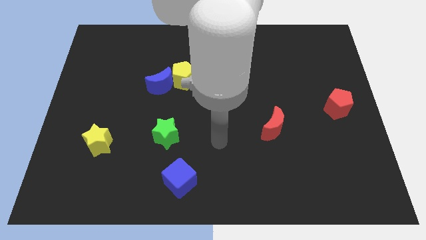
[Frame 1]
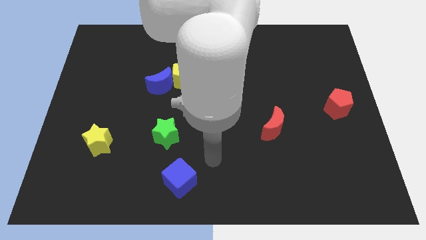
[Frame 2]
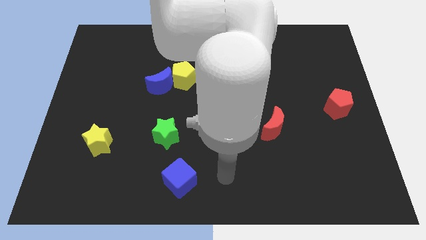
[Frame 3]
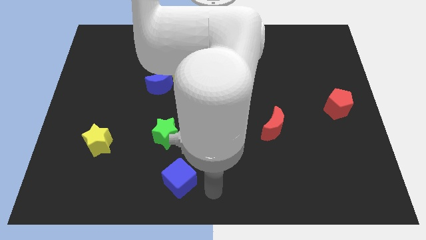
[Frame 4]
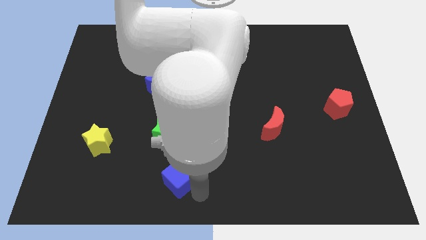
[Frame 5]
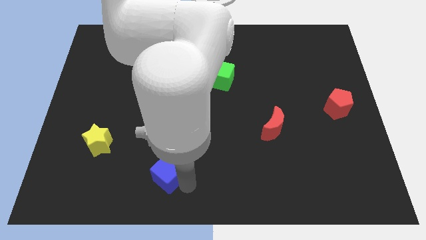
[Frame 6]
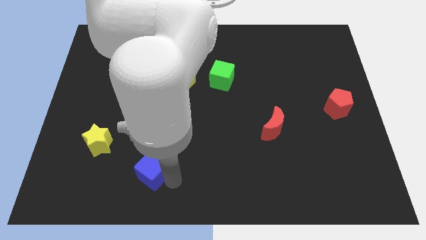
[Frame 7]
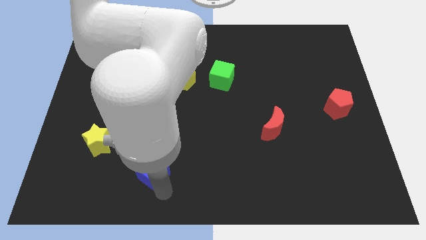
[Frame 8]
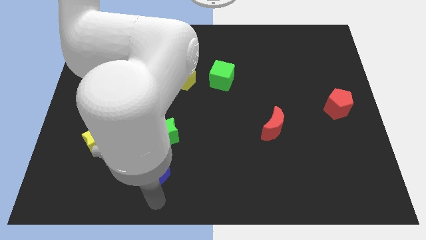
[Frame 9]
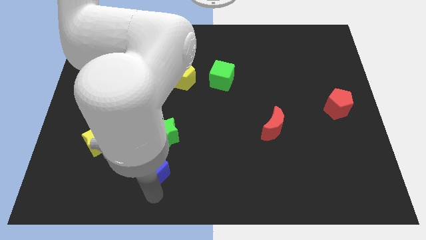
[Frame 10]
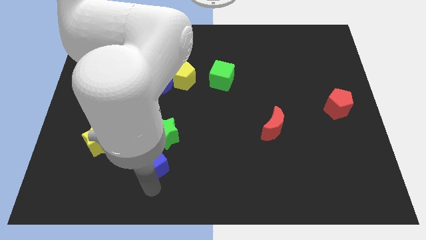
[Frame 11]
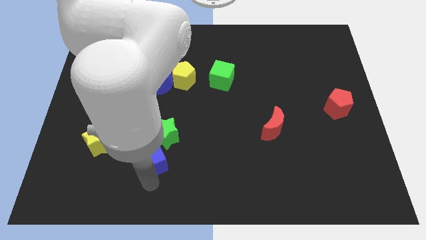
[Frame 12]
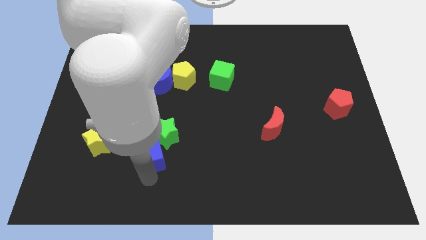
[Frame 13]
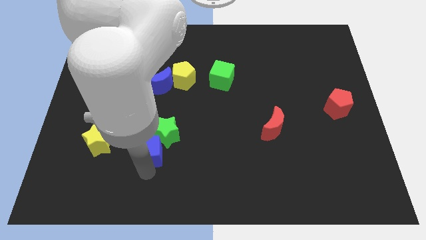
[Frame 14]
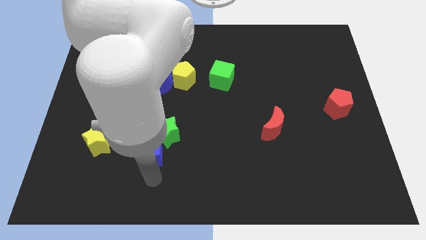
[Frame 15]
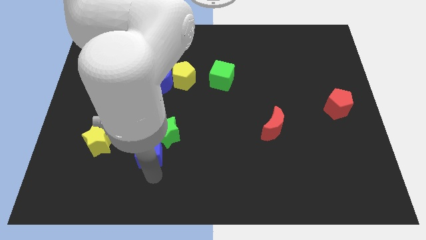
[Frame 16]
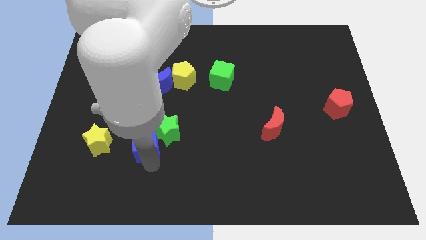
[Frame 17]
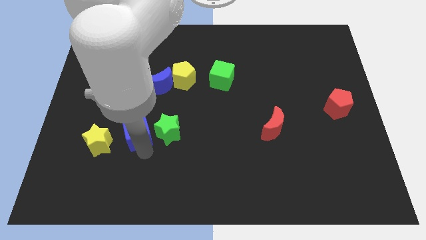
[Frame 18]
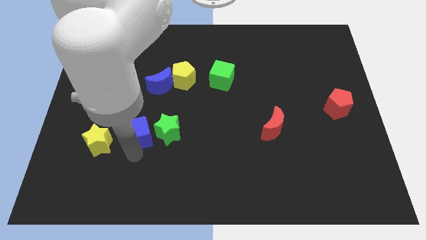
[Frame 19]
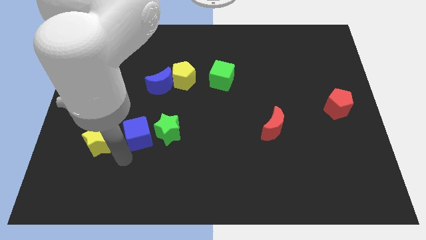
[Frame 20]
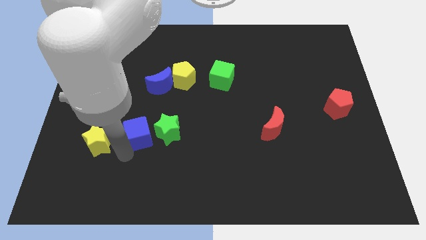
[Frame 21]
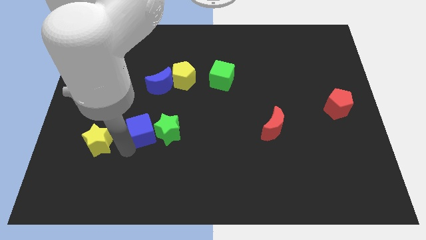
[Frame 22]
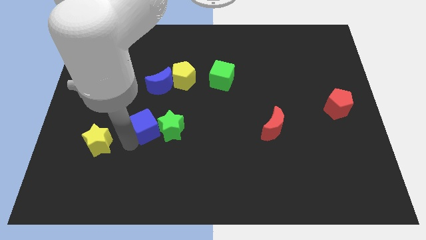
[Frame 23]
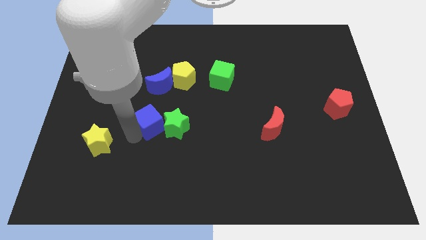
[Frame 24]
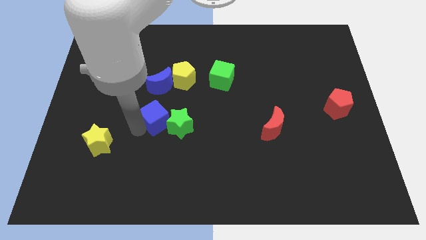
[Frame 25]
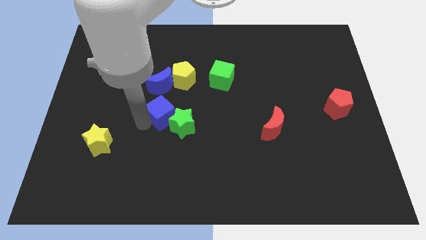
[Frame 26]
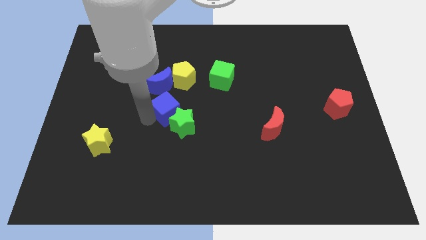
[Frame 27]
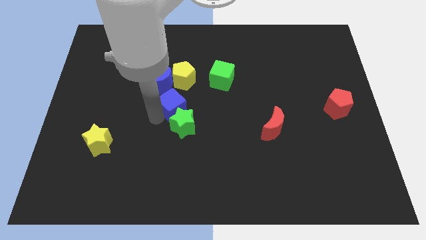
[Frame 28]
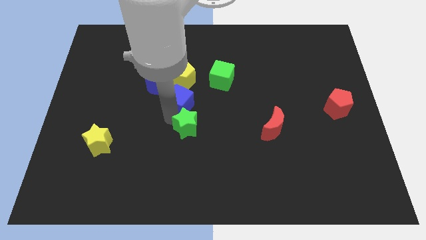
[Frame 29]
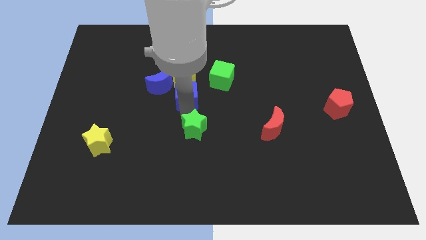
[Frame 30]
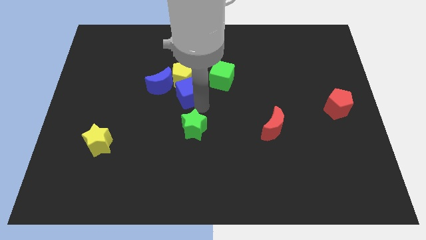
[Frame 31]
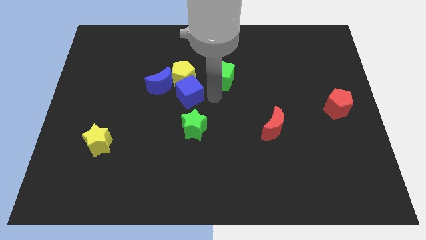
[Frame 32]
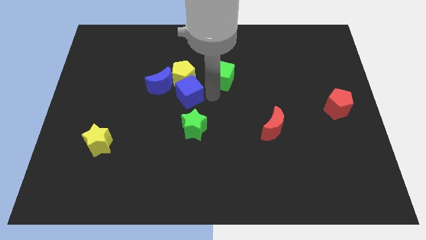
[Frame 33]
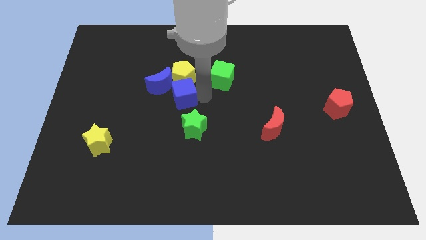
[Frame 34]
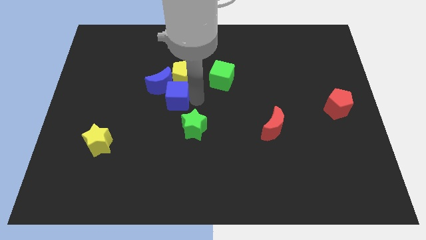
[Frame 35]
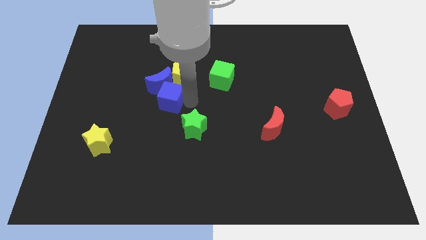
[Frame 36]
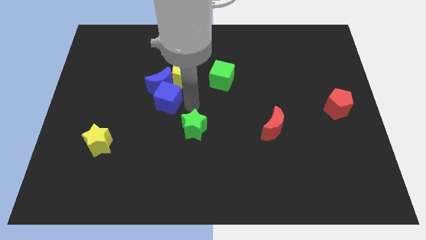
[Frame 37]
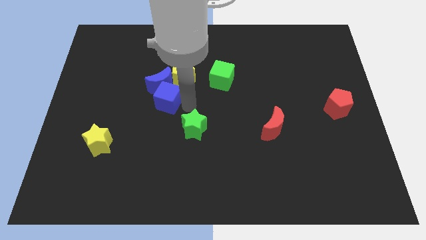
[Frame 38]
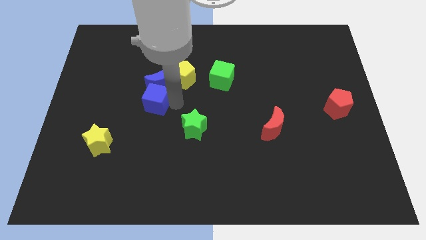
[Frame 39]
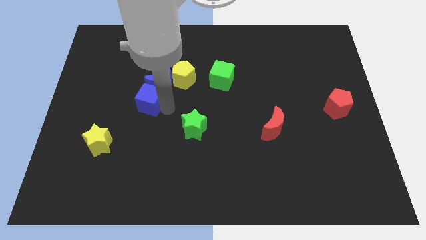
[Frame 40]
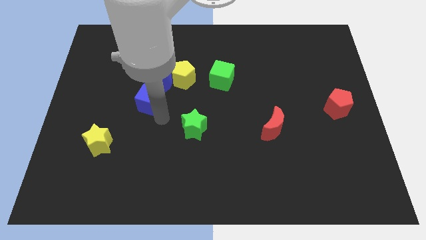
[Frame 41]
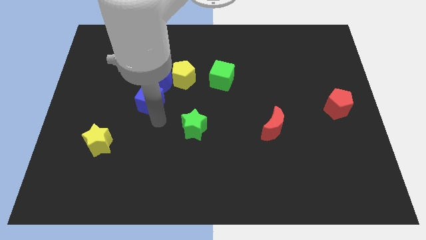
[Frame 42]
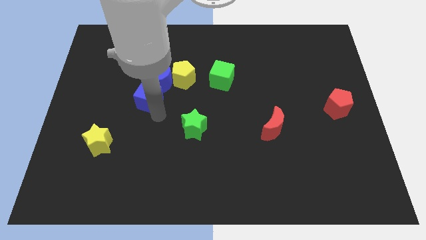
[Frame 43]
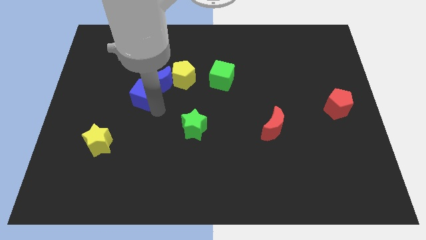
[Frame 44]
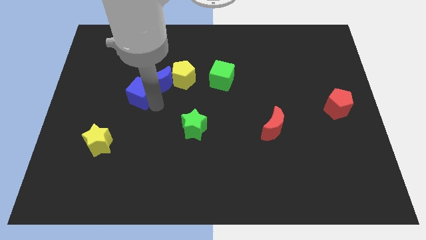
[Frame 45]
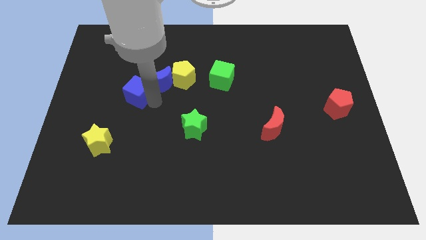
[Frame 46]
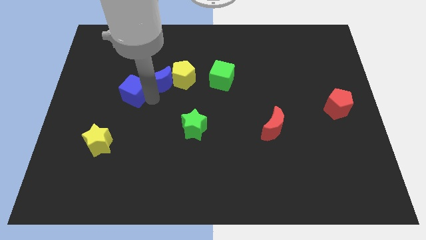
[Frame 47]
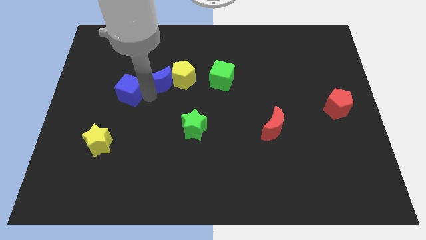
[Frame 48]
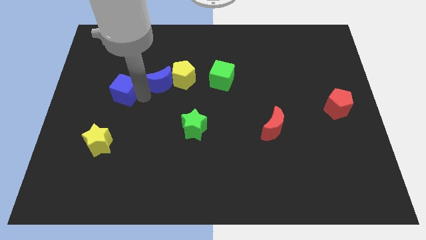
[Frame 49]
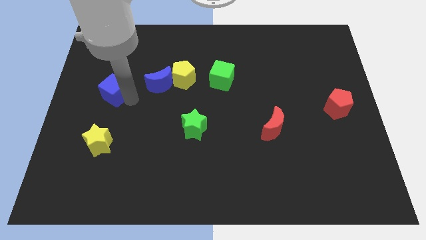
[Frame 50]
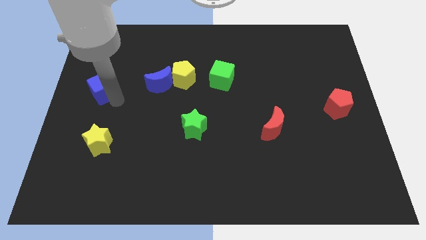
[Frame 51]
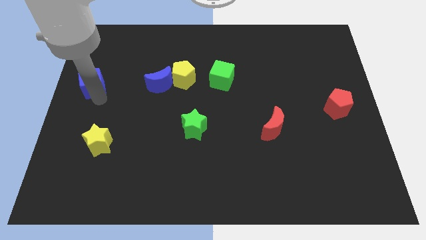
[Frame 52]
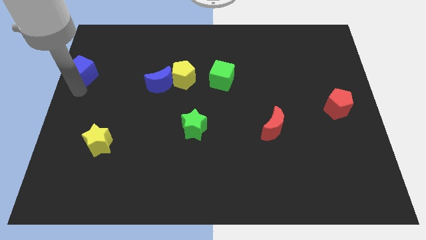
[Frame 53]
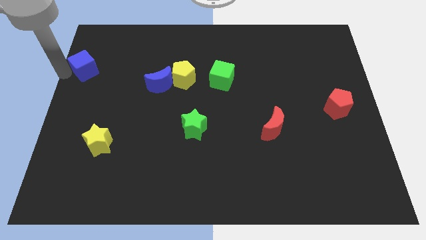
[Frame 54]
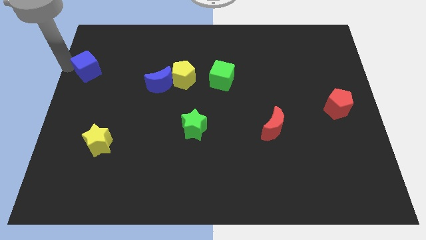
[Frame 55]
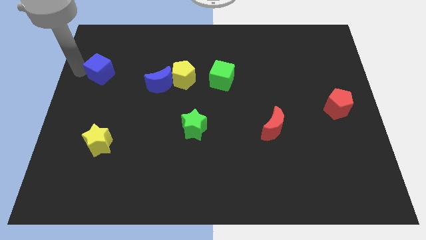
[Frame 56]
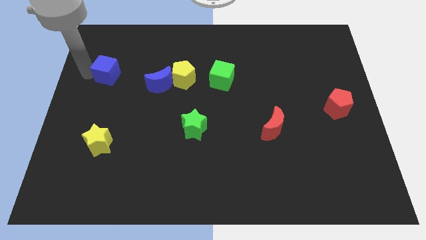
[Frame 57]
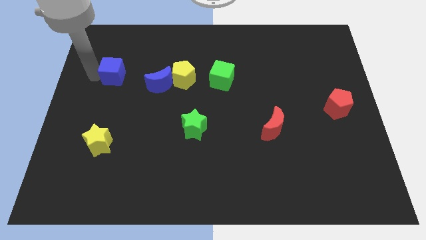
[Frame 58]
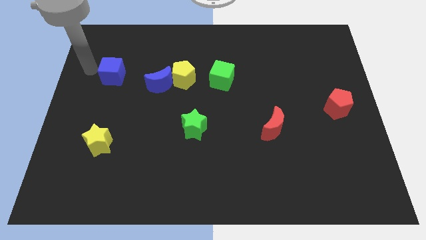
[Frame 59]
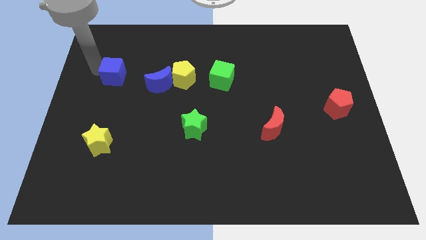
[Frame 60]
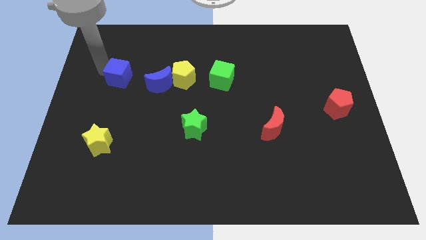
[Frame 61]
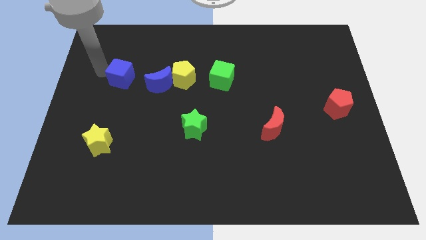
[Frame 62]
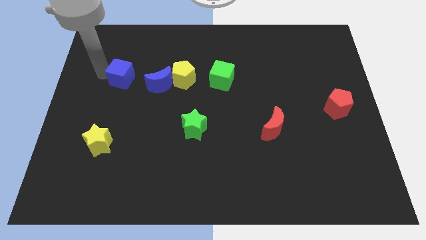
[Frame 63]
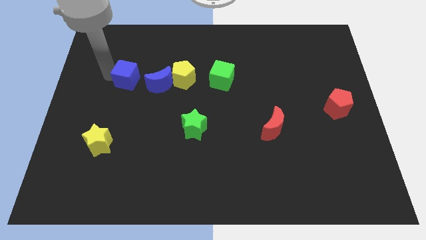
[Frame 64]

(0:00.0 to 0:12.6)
push the blue cube to the top left side of the blue moon
